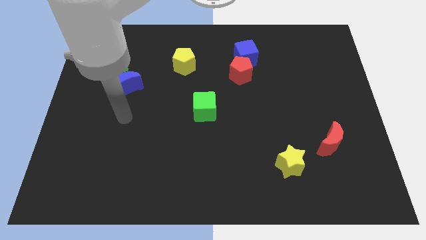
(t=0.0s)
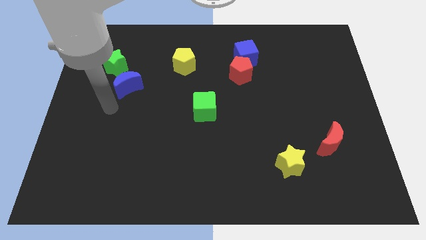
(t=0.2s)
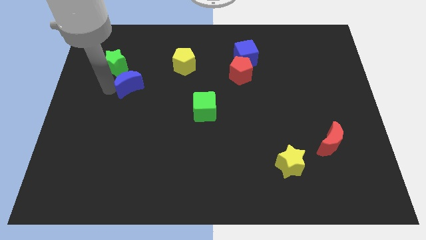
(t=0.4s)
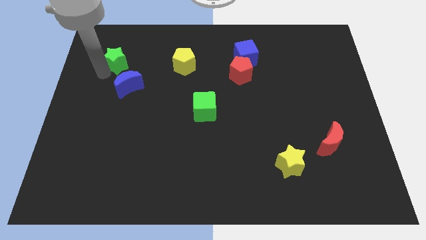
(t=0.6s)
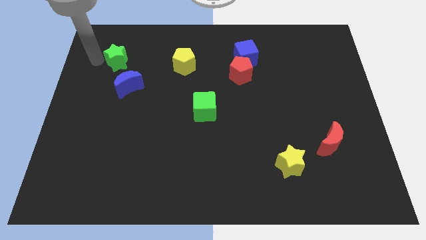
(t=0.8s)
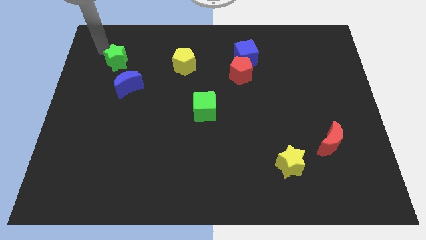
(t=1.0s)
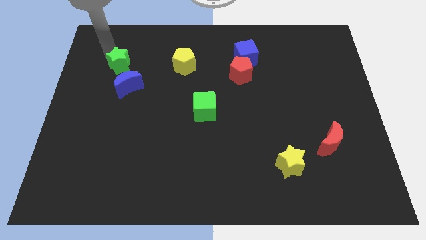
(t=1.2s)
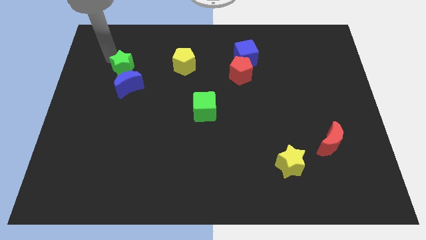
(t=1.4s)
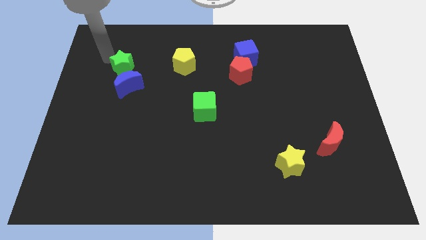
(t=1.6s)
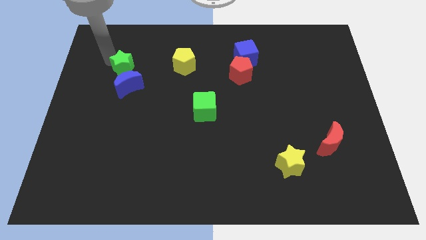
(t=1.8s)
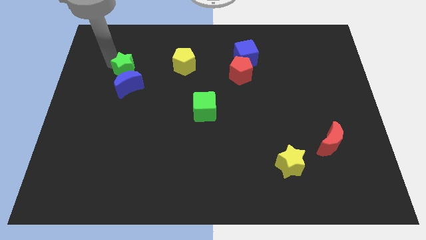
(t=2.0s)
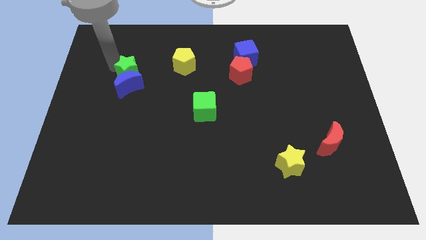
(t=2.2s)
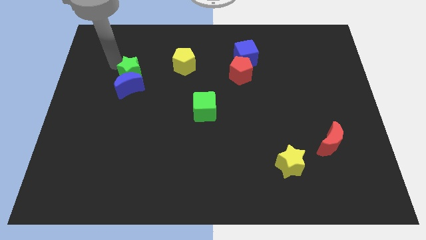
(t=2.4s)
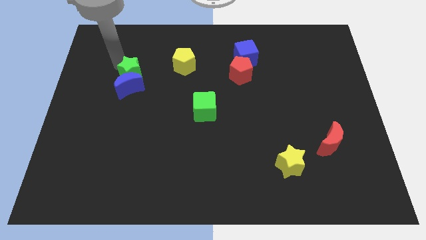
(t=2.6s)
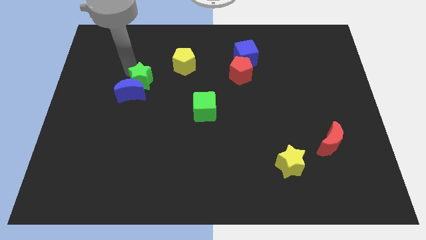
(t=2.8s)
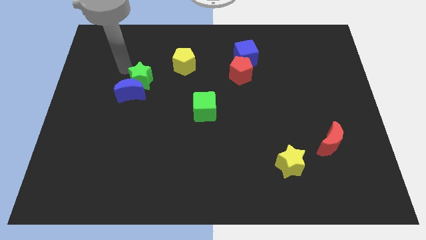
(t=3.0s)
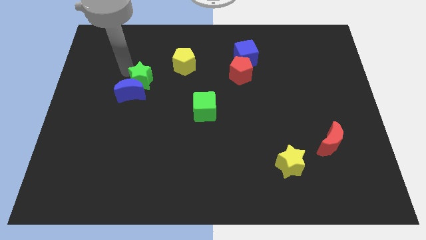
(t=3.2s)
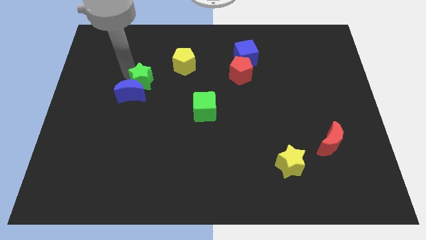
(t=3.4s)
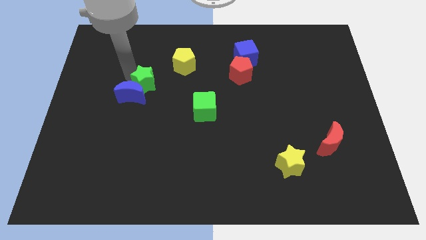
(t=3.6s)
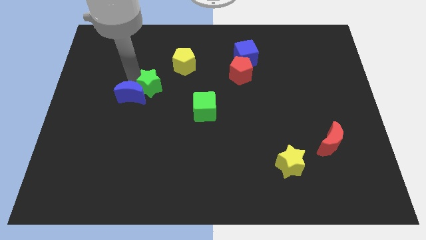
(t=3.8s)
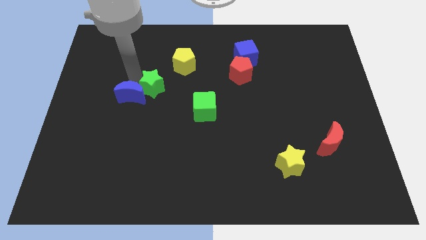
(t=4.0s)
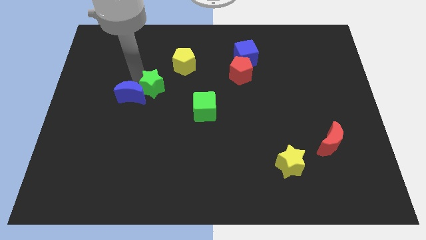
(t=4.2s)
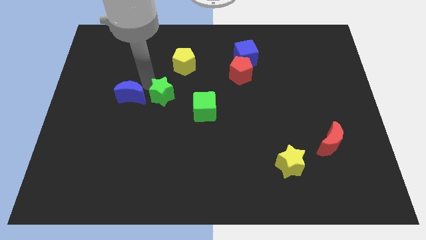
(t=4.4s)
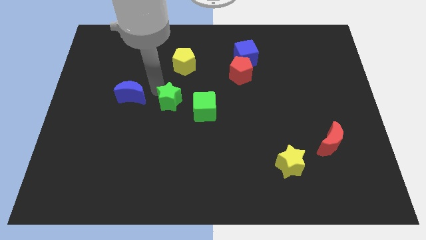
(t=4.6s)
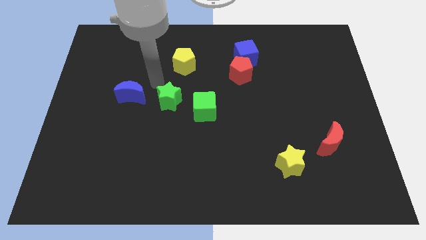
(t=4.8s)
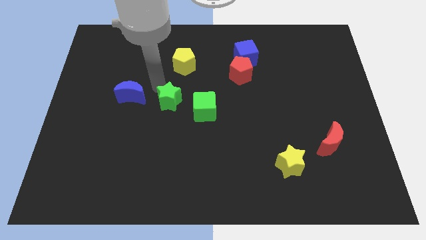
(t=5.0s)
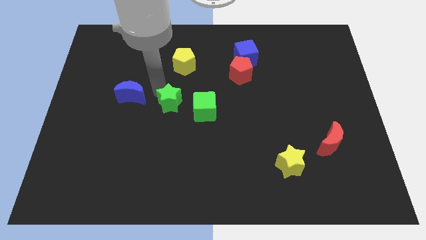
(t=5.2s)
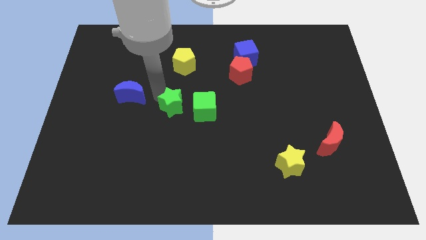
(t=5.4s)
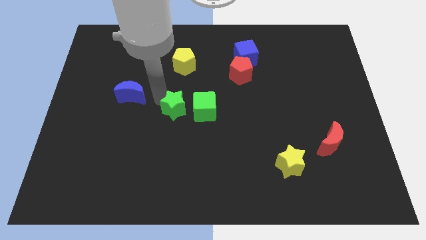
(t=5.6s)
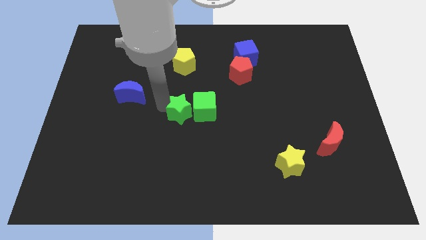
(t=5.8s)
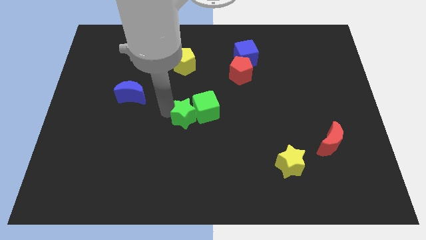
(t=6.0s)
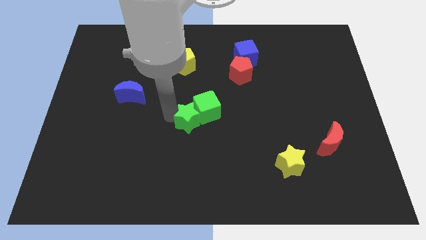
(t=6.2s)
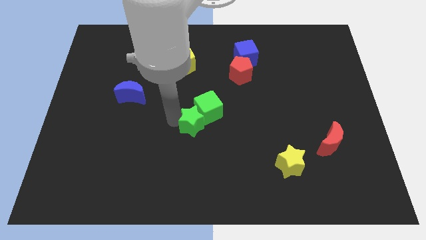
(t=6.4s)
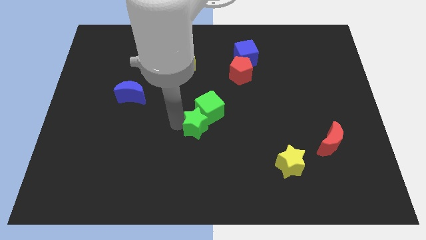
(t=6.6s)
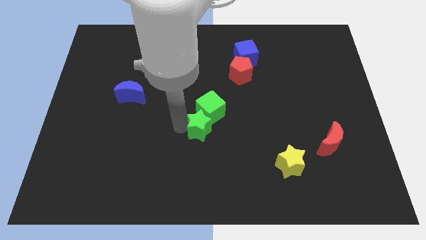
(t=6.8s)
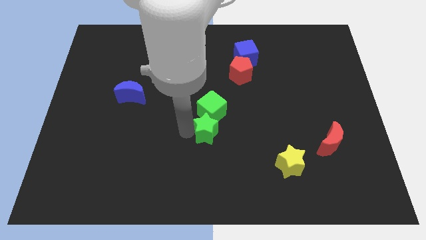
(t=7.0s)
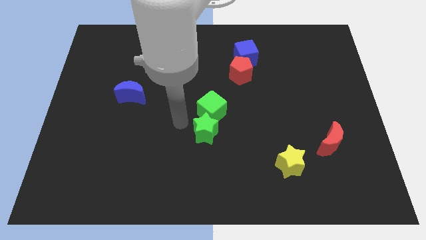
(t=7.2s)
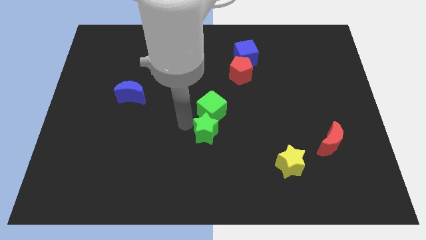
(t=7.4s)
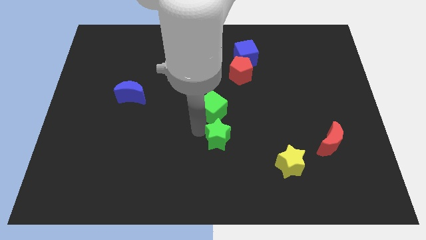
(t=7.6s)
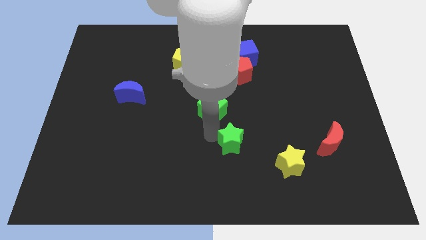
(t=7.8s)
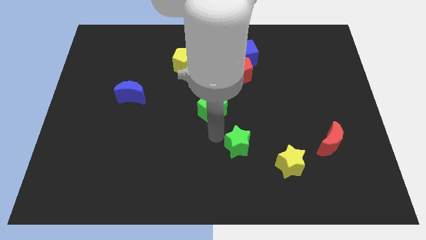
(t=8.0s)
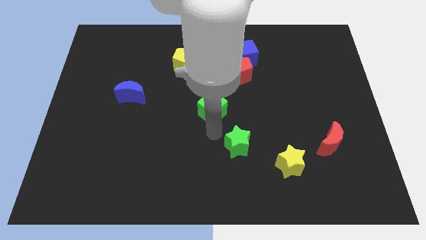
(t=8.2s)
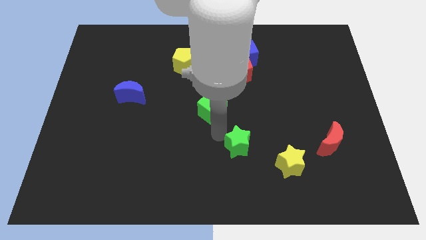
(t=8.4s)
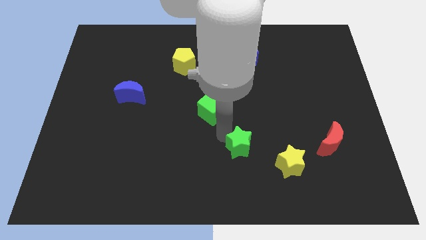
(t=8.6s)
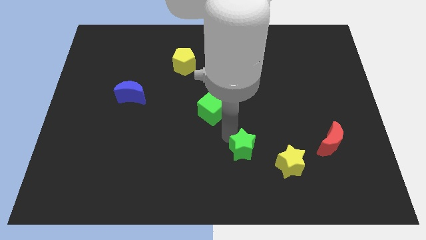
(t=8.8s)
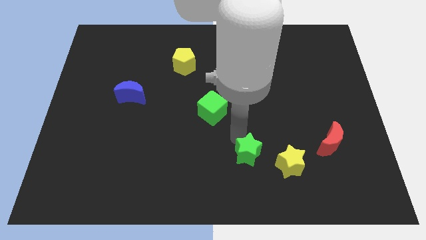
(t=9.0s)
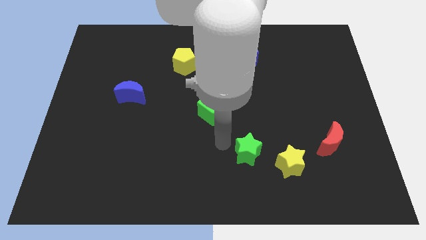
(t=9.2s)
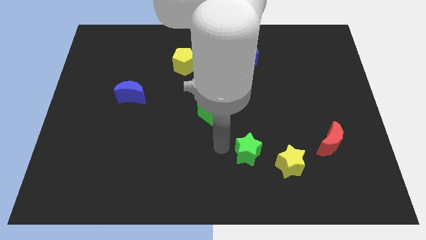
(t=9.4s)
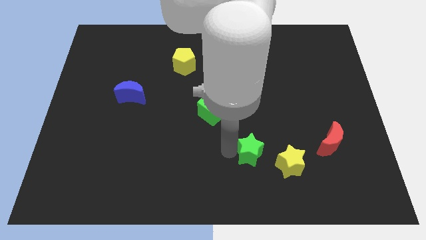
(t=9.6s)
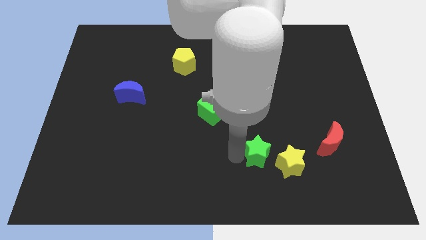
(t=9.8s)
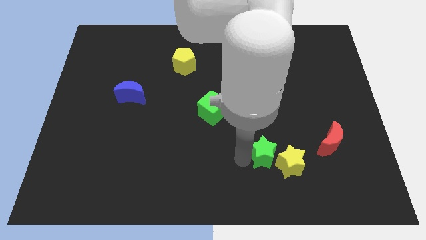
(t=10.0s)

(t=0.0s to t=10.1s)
move the green star to the yellow star

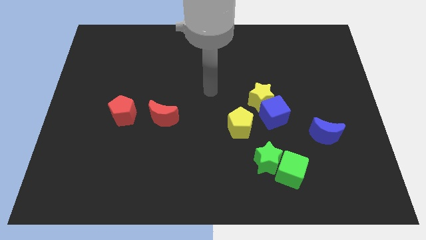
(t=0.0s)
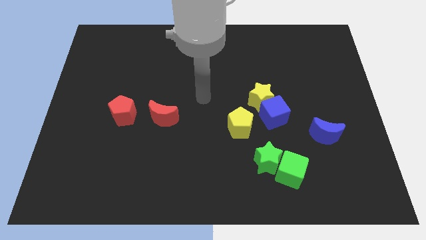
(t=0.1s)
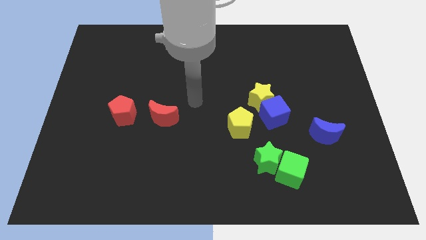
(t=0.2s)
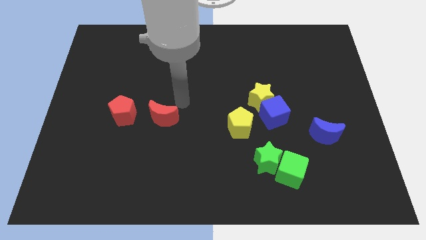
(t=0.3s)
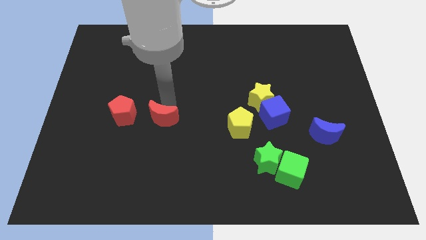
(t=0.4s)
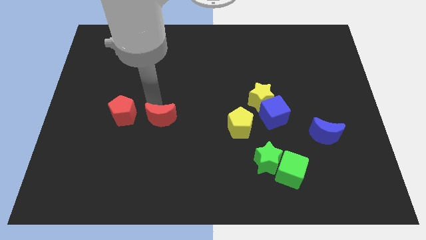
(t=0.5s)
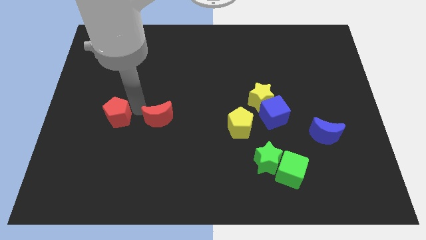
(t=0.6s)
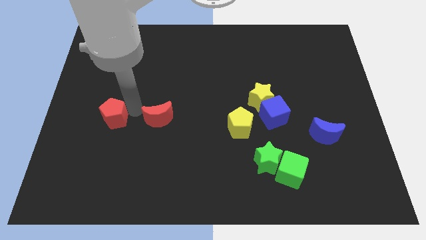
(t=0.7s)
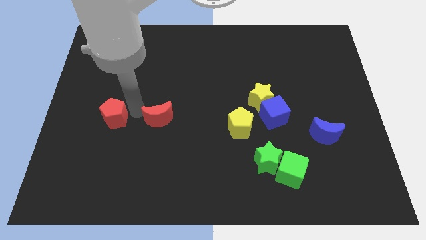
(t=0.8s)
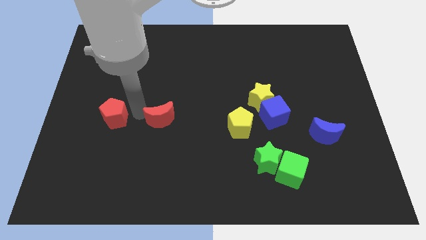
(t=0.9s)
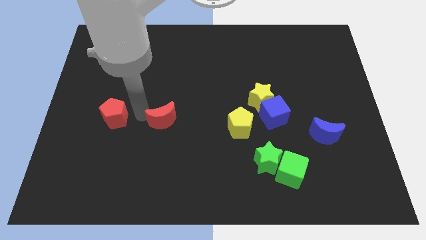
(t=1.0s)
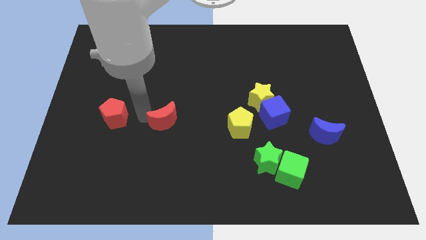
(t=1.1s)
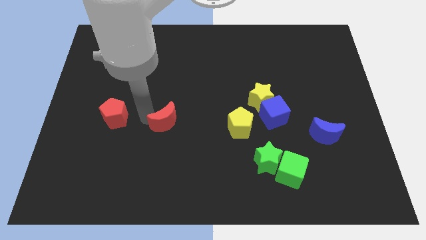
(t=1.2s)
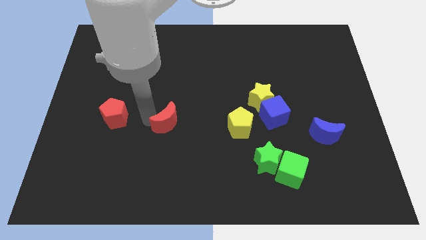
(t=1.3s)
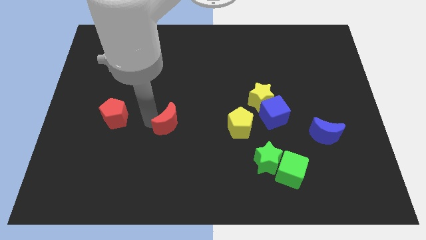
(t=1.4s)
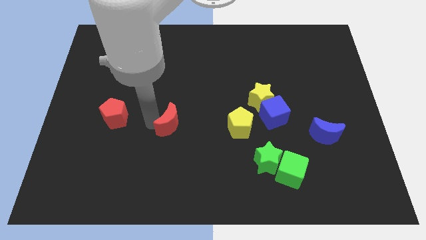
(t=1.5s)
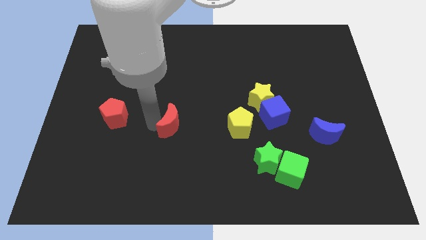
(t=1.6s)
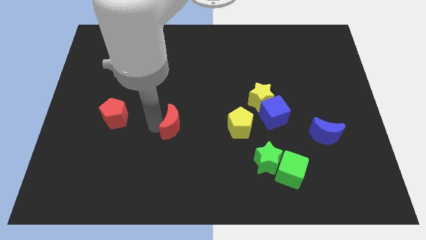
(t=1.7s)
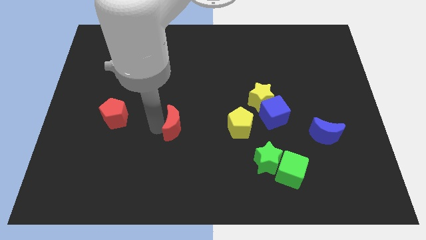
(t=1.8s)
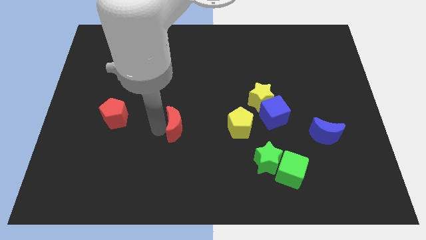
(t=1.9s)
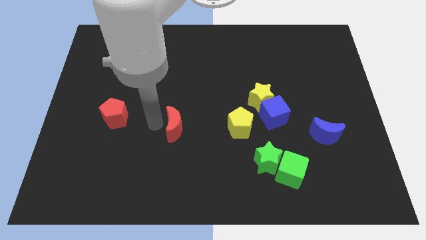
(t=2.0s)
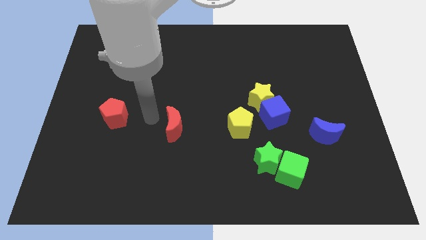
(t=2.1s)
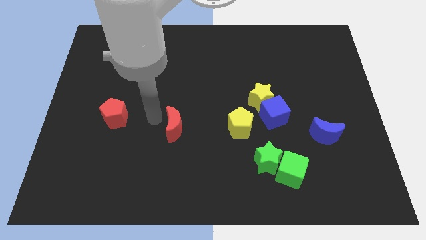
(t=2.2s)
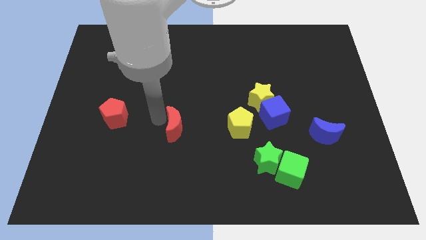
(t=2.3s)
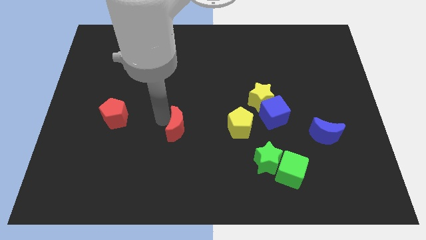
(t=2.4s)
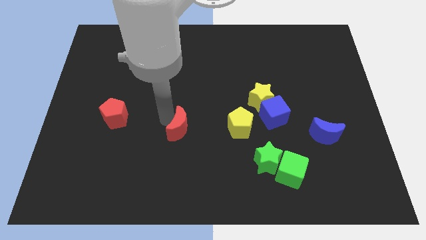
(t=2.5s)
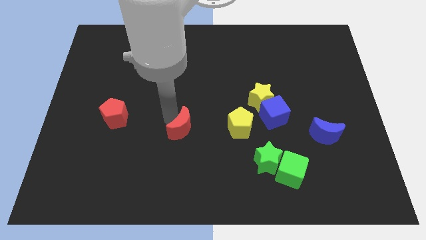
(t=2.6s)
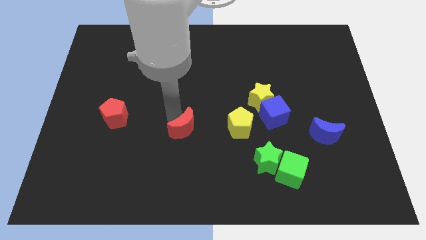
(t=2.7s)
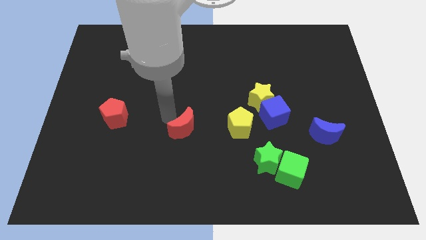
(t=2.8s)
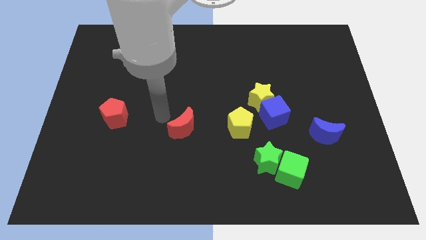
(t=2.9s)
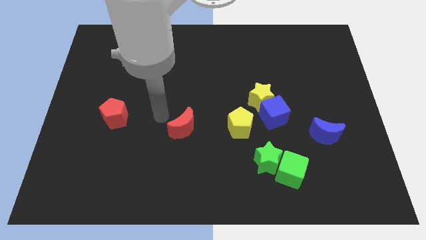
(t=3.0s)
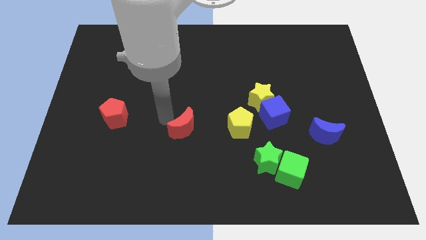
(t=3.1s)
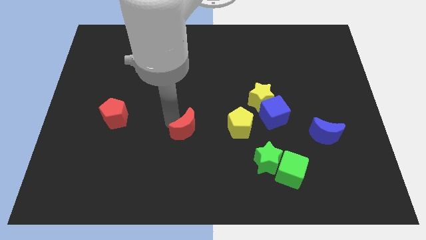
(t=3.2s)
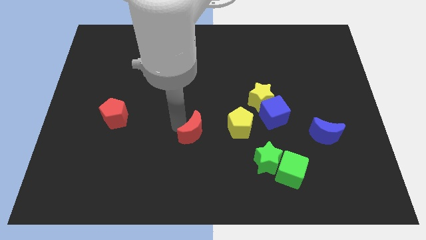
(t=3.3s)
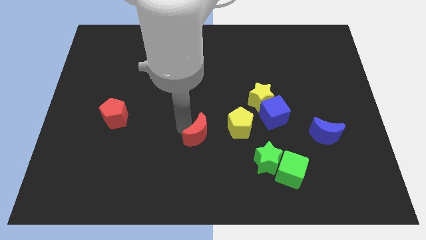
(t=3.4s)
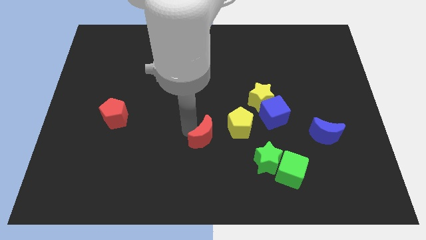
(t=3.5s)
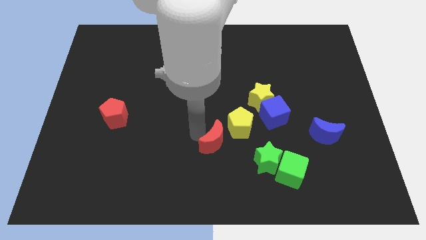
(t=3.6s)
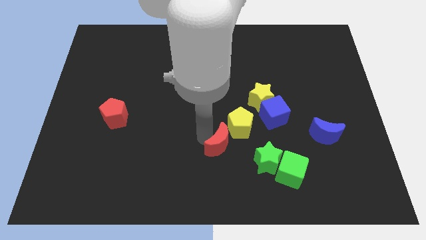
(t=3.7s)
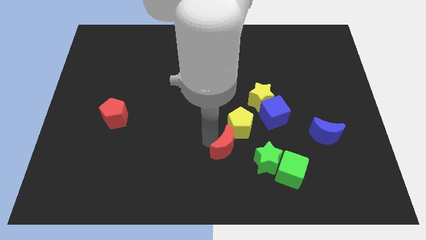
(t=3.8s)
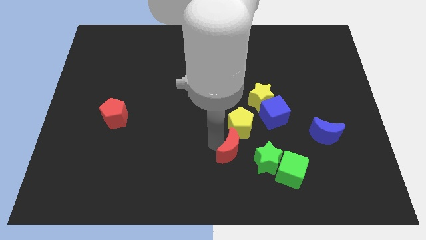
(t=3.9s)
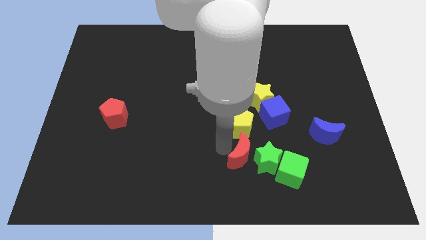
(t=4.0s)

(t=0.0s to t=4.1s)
put the red moon next to the green star
